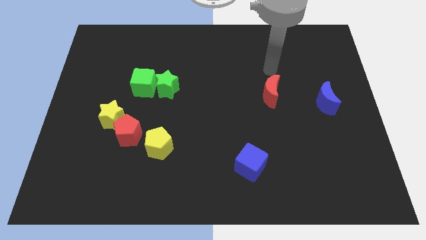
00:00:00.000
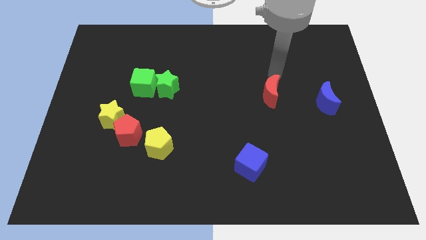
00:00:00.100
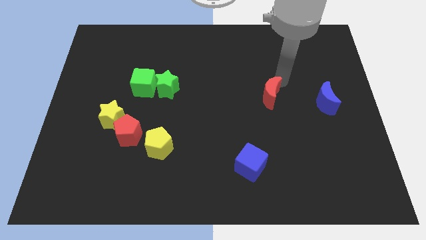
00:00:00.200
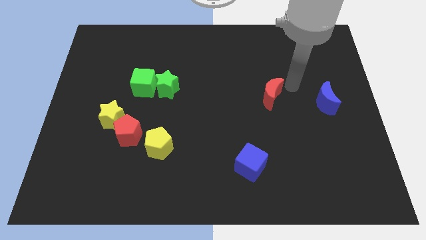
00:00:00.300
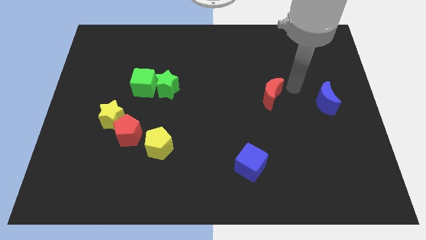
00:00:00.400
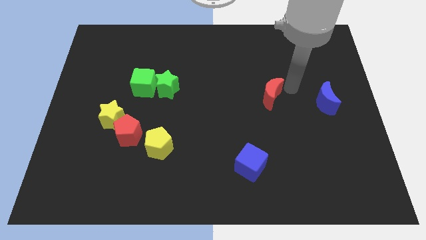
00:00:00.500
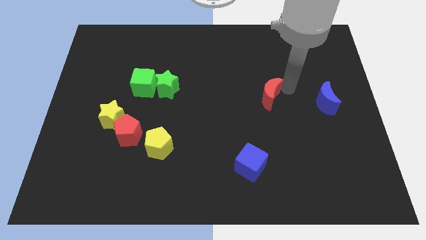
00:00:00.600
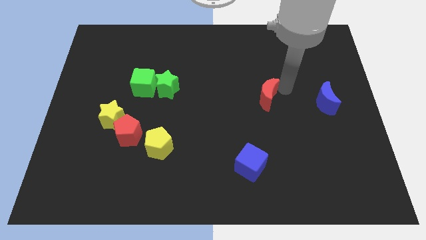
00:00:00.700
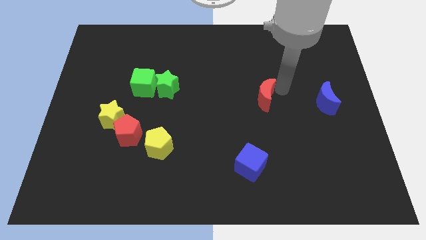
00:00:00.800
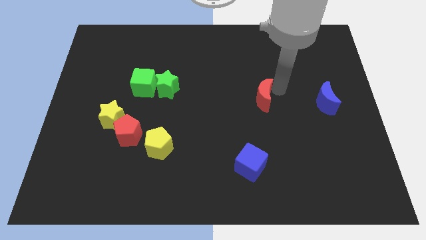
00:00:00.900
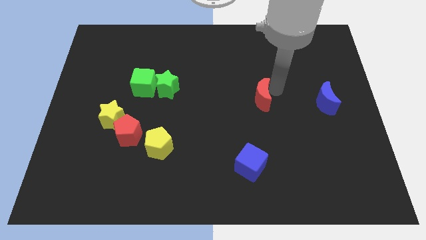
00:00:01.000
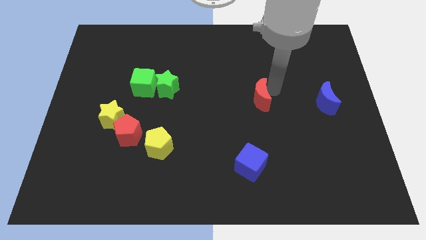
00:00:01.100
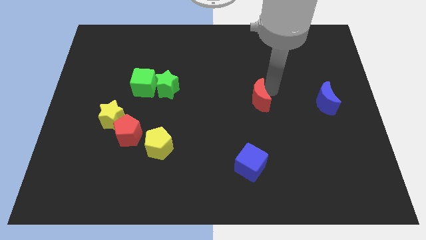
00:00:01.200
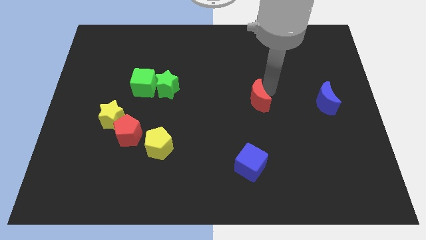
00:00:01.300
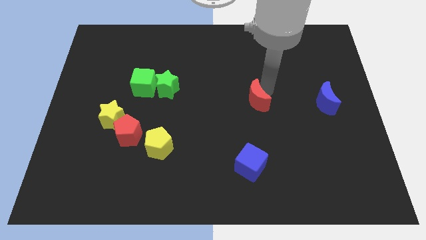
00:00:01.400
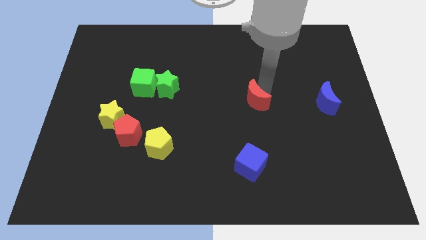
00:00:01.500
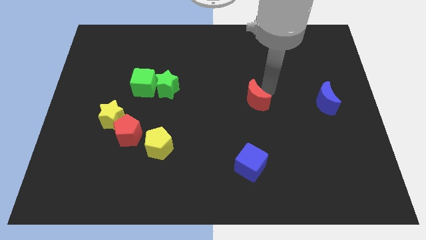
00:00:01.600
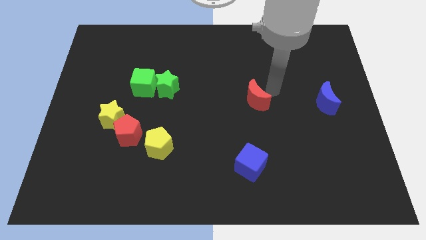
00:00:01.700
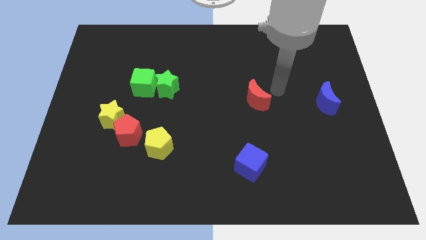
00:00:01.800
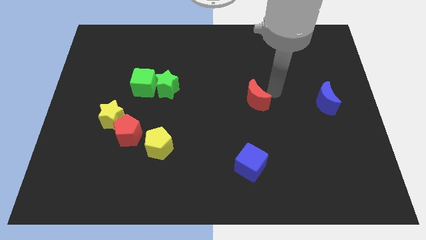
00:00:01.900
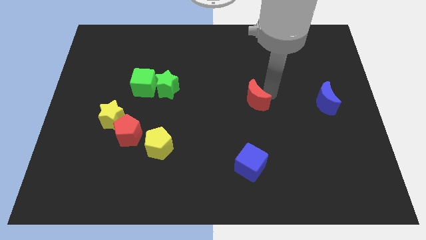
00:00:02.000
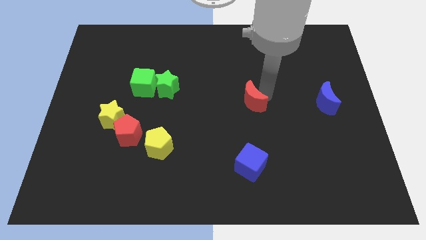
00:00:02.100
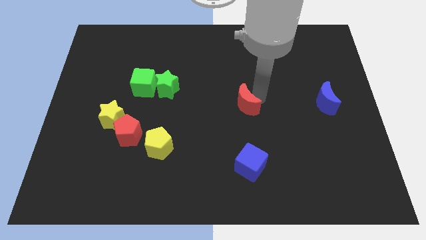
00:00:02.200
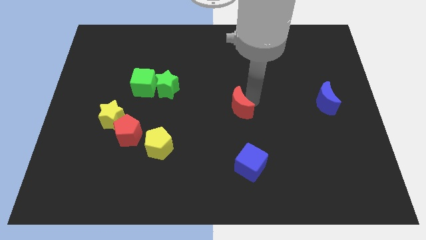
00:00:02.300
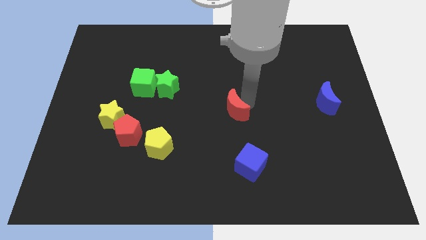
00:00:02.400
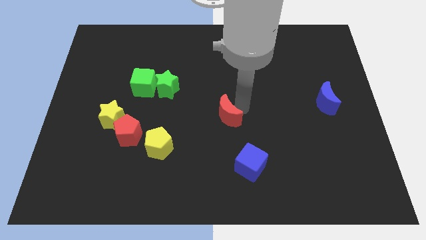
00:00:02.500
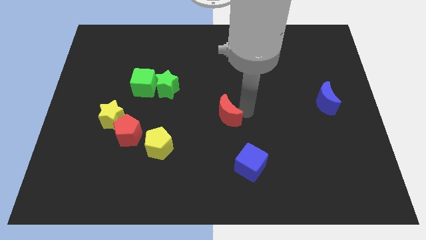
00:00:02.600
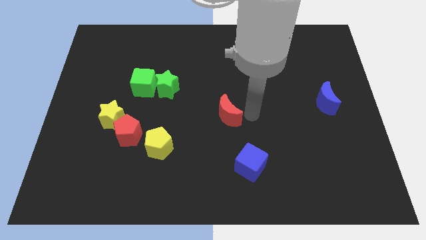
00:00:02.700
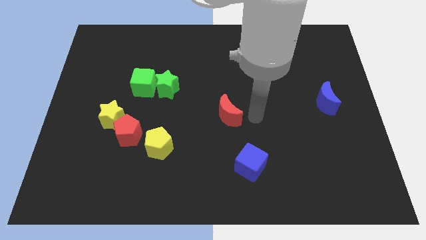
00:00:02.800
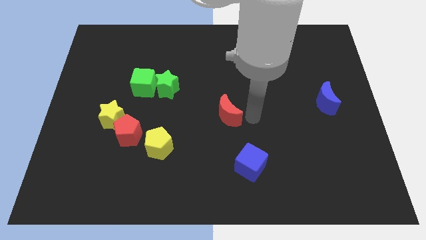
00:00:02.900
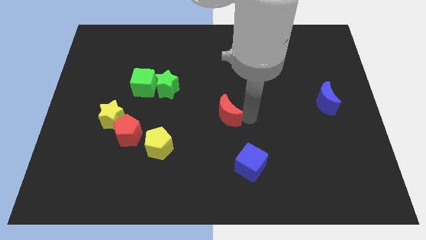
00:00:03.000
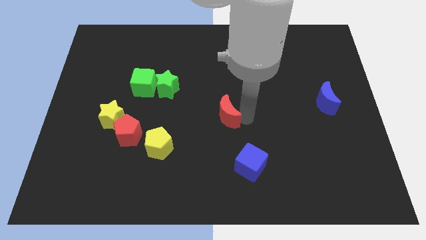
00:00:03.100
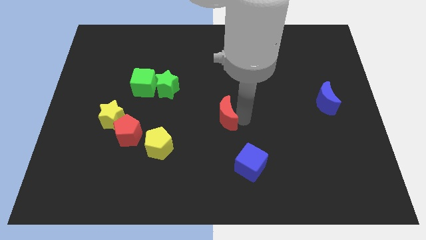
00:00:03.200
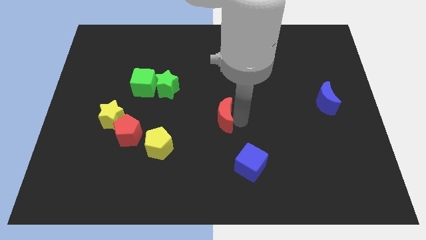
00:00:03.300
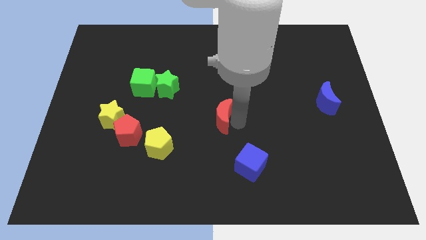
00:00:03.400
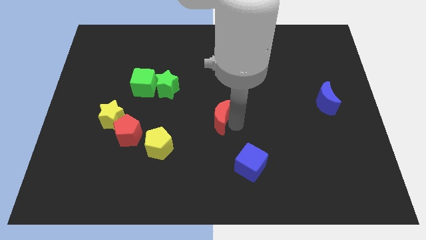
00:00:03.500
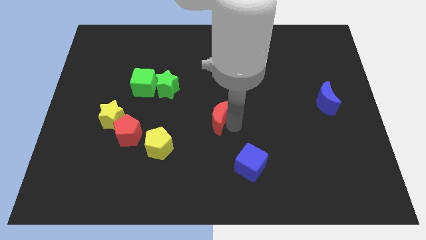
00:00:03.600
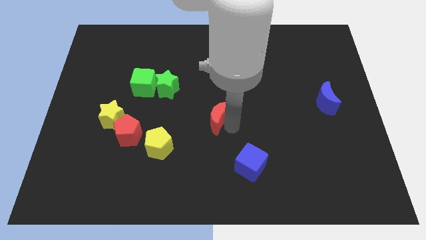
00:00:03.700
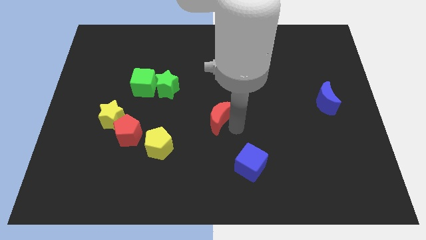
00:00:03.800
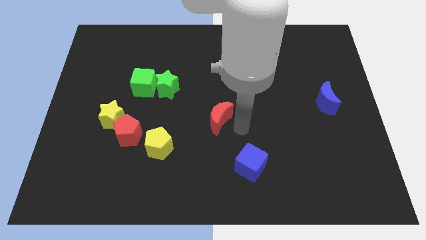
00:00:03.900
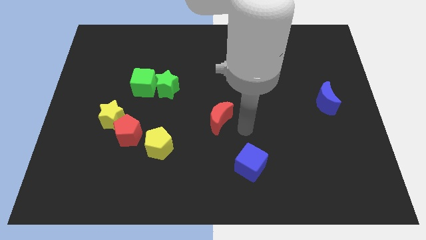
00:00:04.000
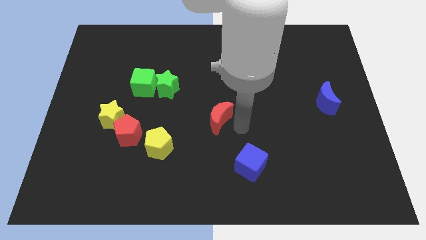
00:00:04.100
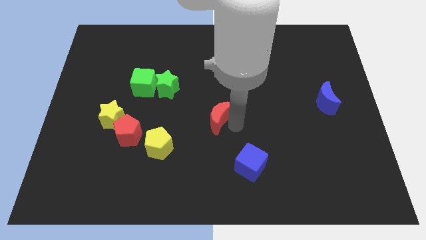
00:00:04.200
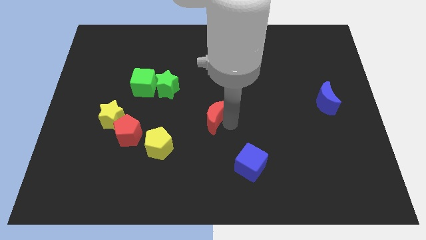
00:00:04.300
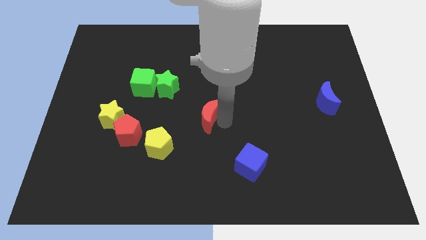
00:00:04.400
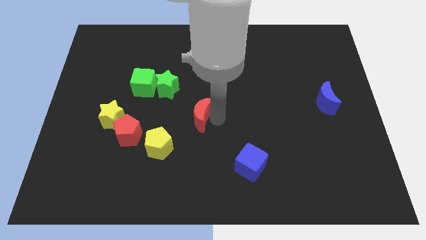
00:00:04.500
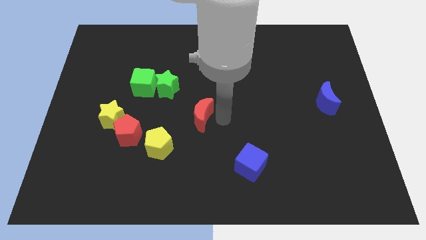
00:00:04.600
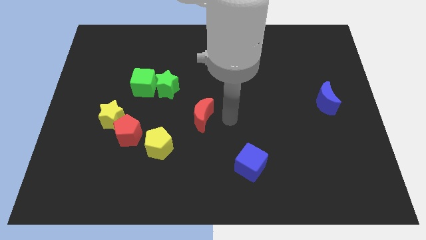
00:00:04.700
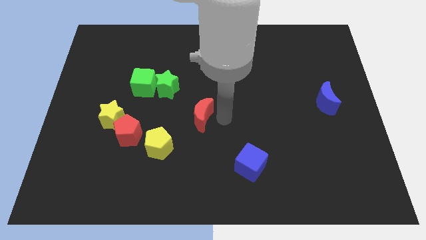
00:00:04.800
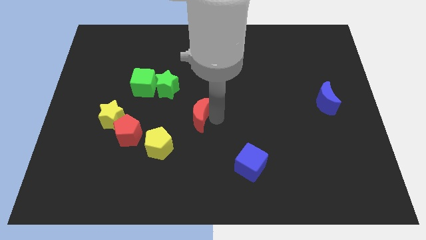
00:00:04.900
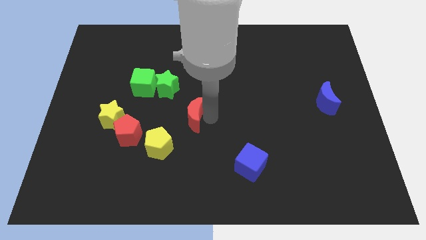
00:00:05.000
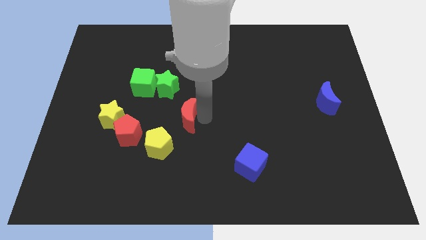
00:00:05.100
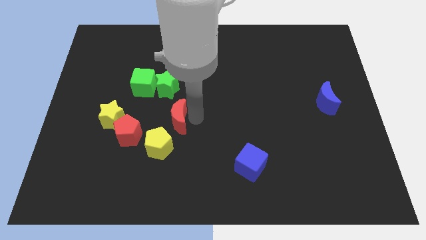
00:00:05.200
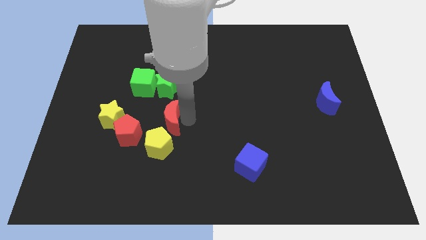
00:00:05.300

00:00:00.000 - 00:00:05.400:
move the red moon to the top right side of the red pentagon

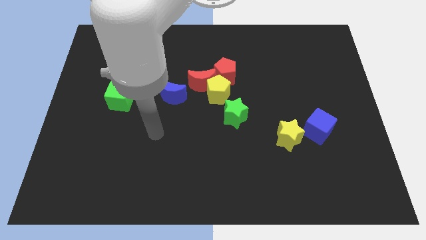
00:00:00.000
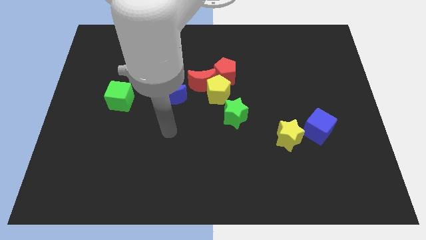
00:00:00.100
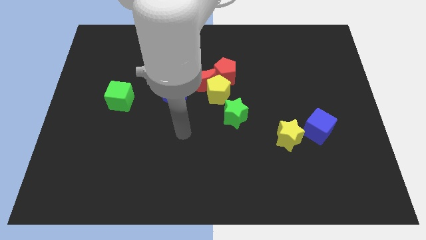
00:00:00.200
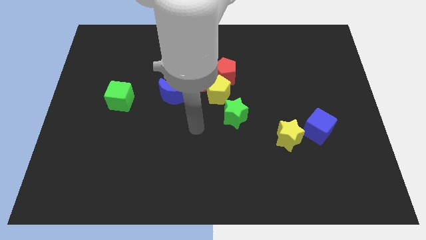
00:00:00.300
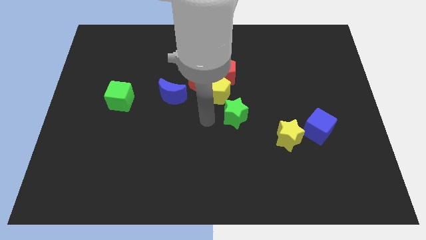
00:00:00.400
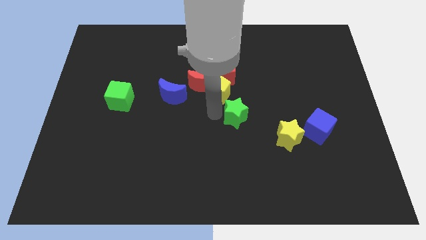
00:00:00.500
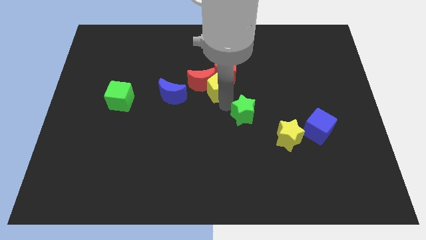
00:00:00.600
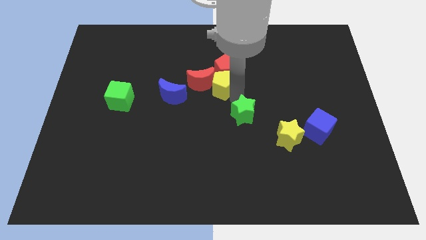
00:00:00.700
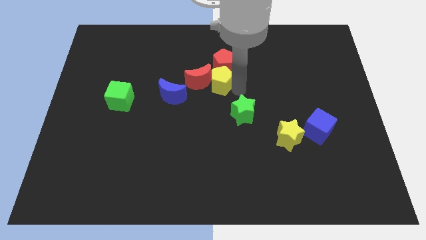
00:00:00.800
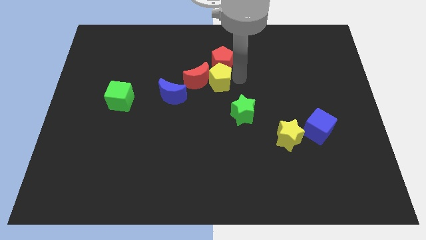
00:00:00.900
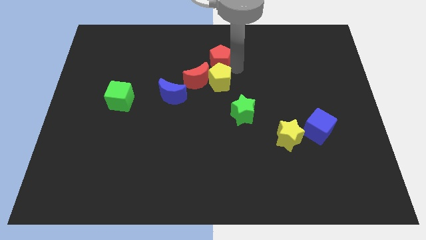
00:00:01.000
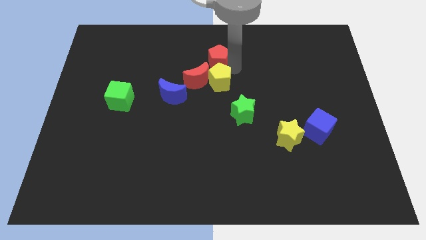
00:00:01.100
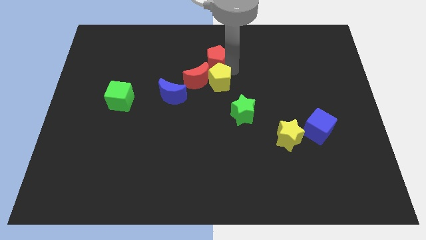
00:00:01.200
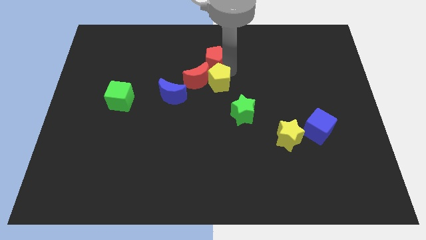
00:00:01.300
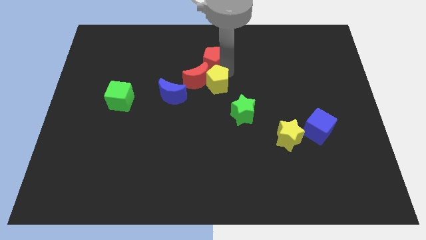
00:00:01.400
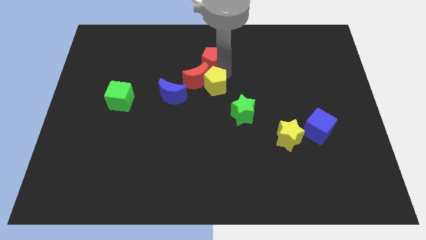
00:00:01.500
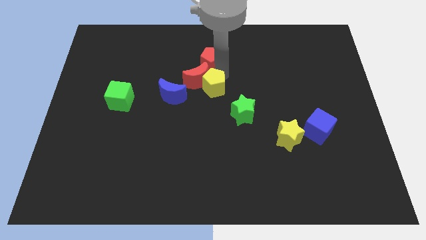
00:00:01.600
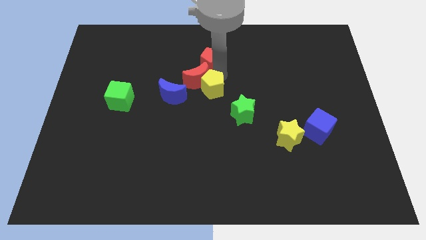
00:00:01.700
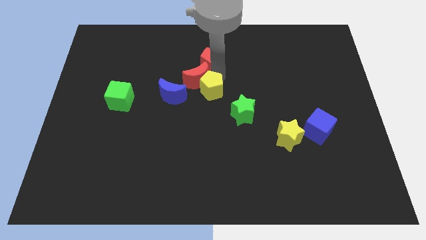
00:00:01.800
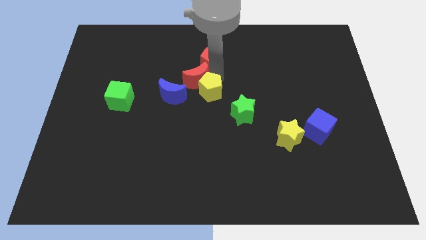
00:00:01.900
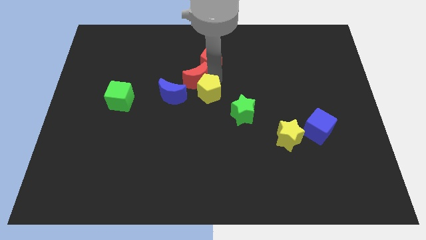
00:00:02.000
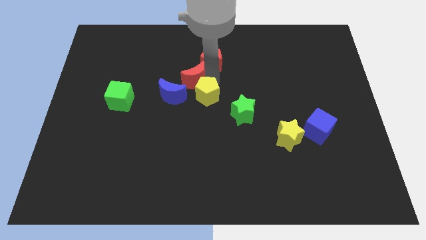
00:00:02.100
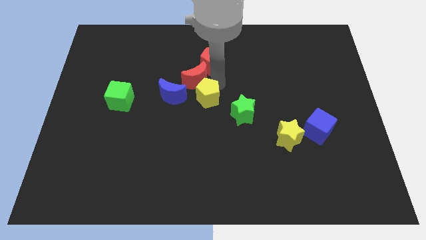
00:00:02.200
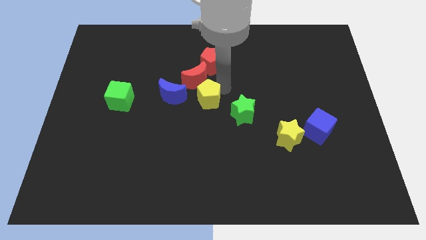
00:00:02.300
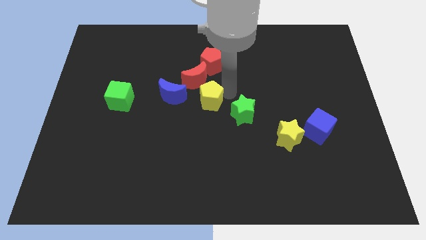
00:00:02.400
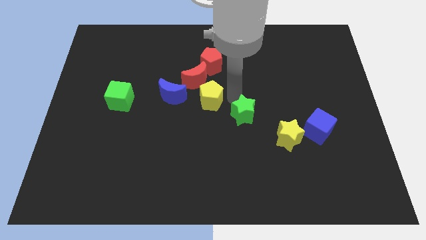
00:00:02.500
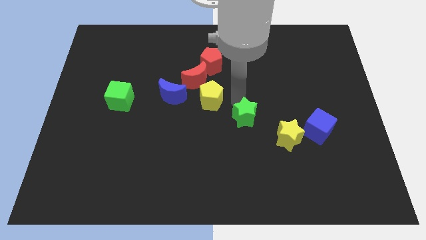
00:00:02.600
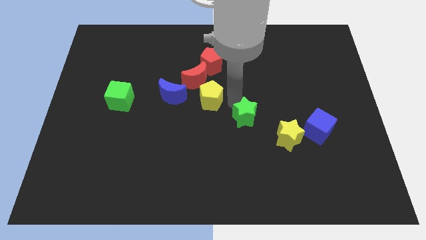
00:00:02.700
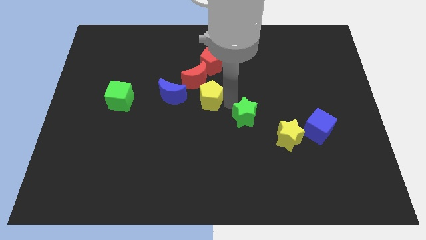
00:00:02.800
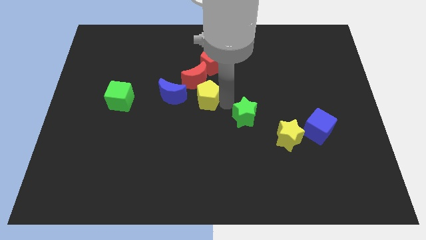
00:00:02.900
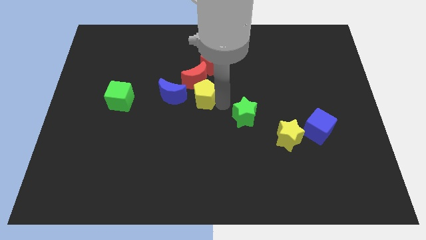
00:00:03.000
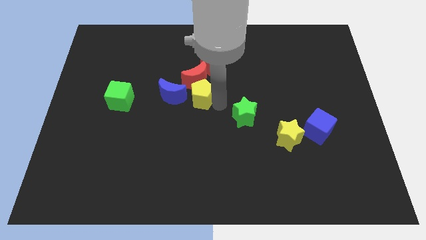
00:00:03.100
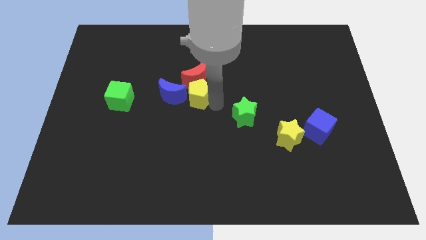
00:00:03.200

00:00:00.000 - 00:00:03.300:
push the yellow pentagon to the bottom left of the red moon
